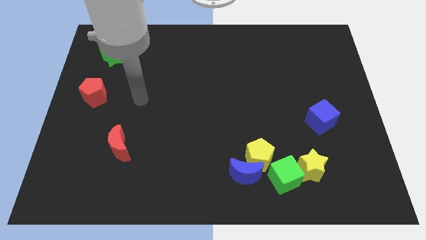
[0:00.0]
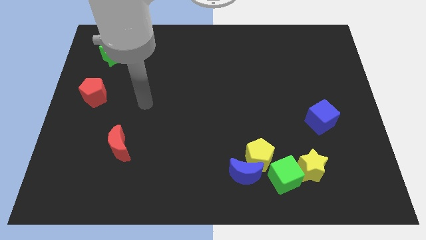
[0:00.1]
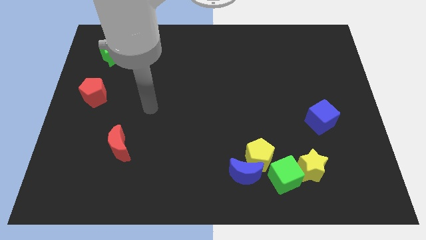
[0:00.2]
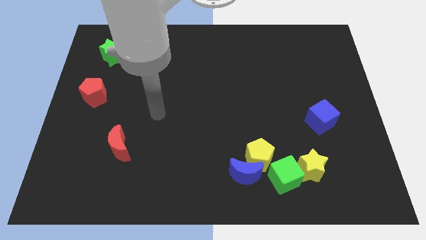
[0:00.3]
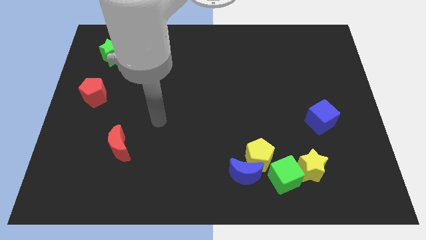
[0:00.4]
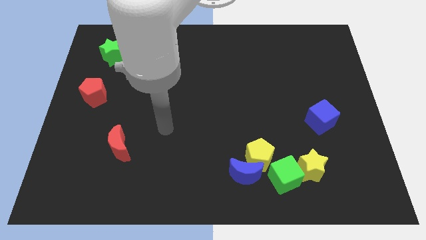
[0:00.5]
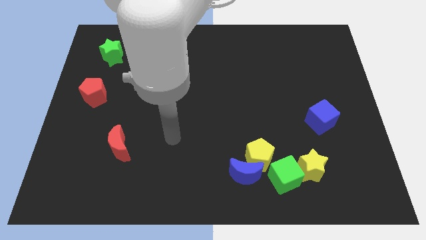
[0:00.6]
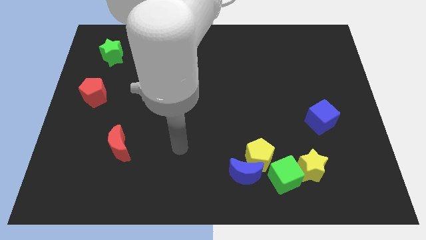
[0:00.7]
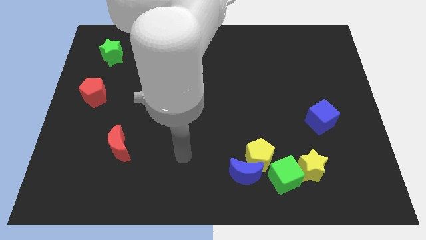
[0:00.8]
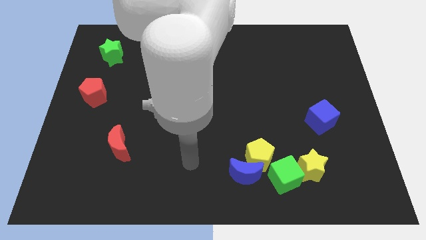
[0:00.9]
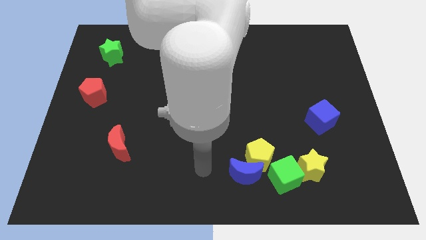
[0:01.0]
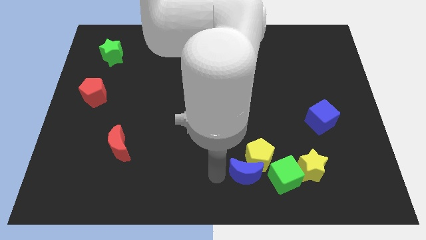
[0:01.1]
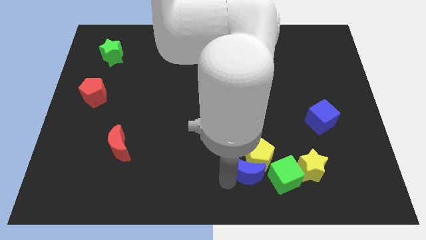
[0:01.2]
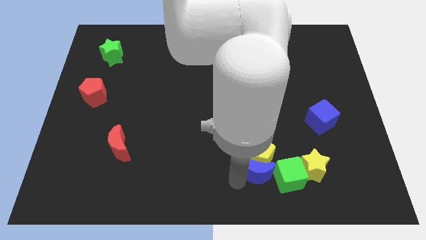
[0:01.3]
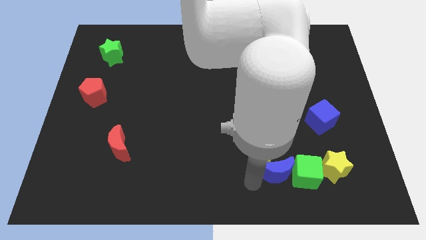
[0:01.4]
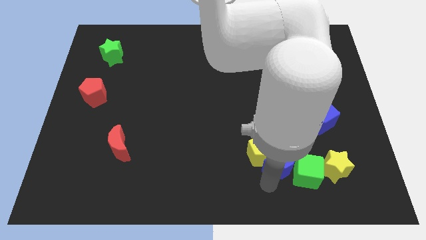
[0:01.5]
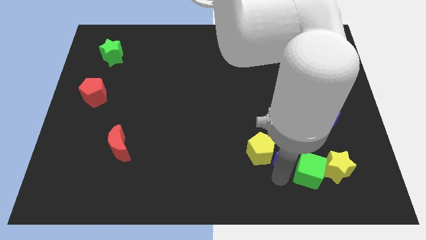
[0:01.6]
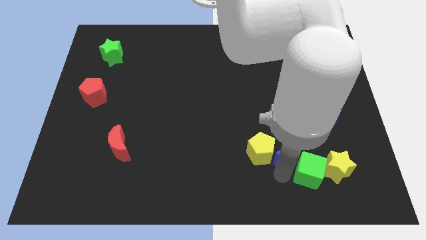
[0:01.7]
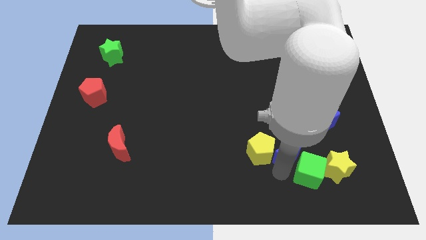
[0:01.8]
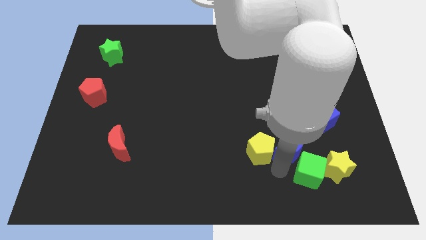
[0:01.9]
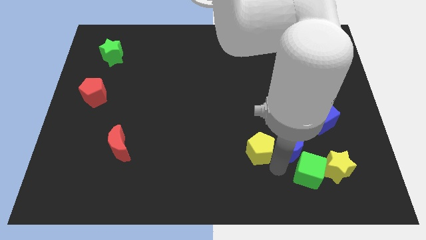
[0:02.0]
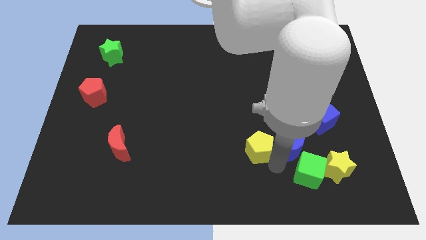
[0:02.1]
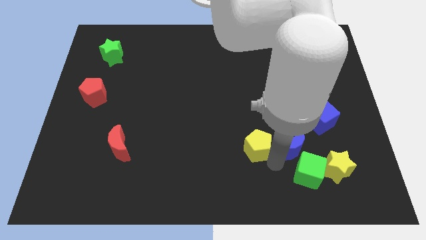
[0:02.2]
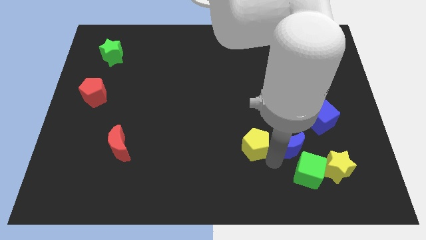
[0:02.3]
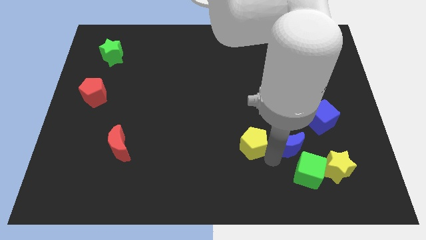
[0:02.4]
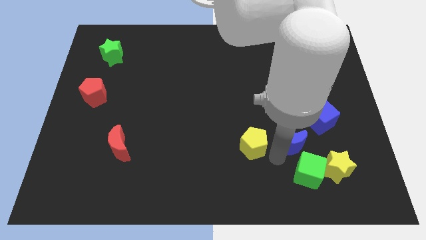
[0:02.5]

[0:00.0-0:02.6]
separate the yellow pentagon from the blue moon and green cube

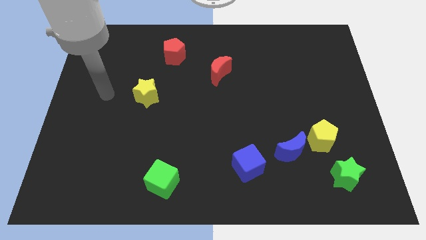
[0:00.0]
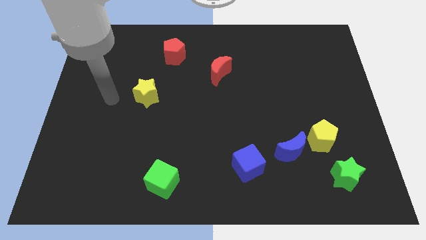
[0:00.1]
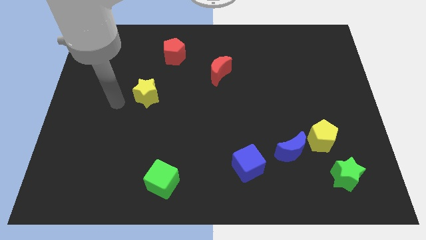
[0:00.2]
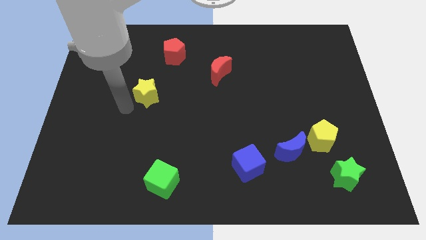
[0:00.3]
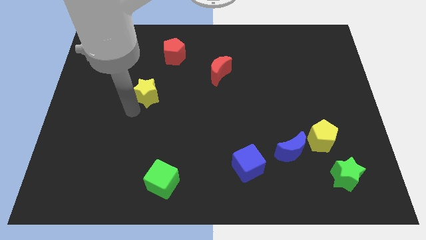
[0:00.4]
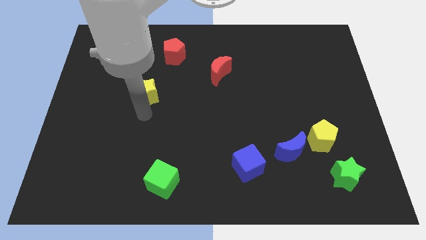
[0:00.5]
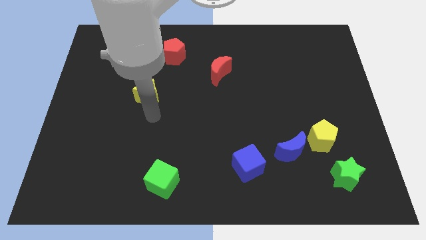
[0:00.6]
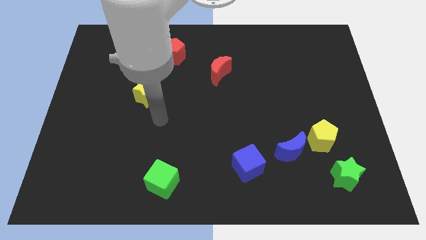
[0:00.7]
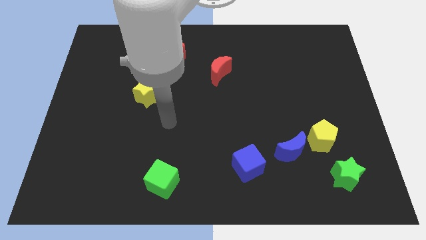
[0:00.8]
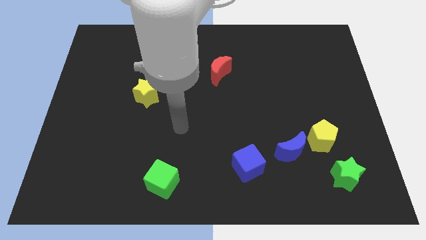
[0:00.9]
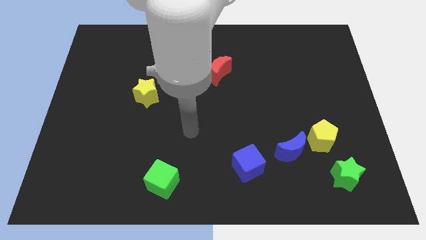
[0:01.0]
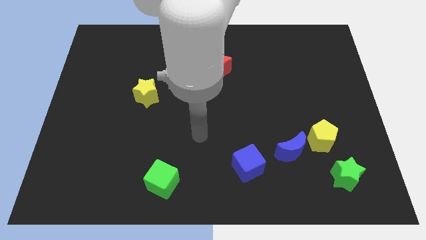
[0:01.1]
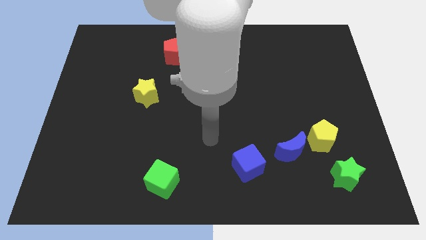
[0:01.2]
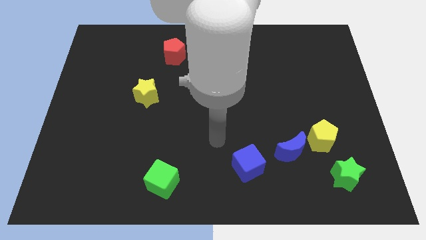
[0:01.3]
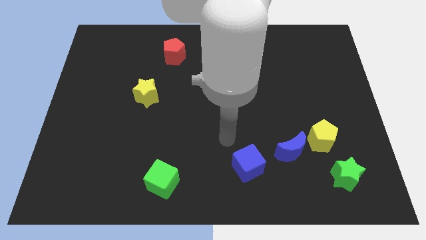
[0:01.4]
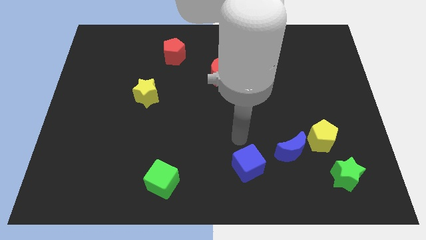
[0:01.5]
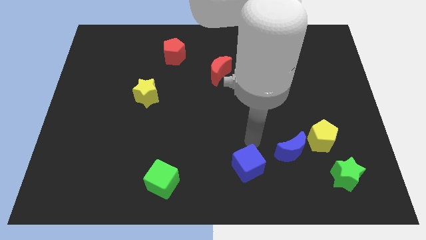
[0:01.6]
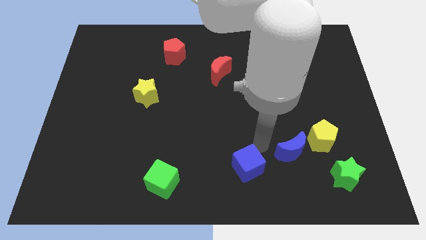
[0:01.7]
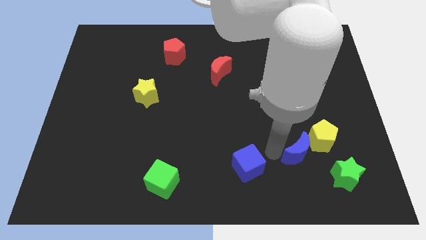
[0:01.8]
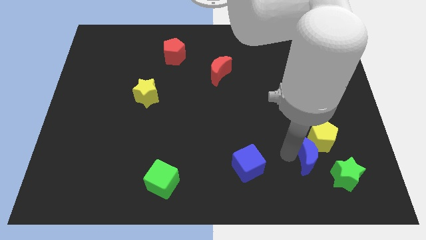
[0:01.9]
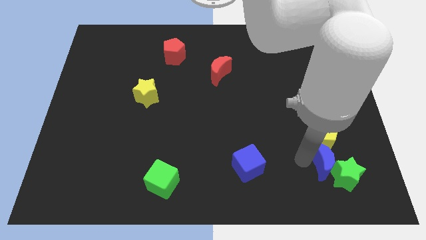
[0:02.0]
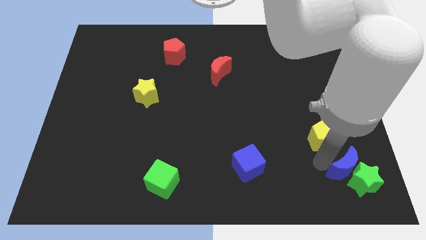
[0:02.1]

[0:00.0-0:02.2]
pull the yellow pentagon apart from the blue moon and green star

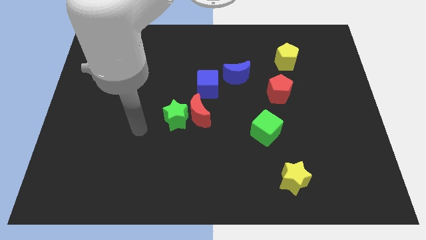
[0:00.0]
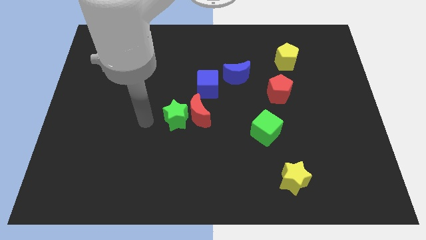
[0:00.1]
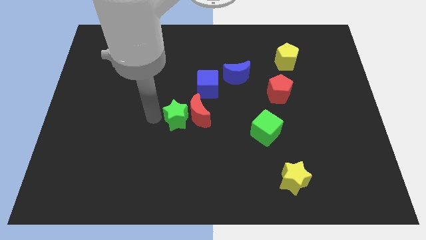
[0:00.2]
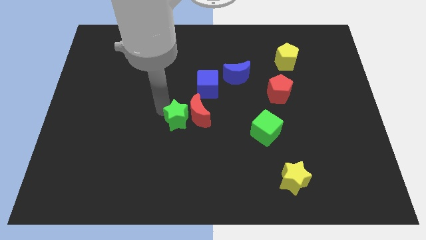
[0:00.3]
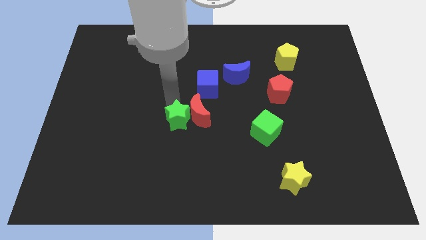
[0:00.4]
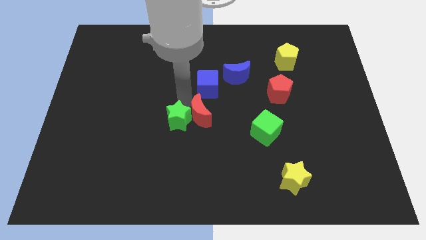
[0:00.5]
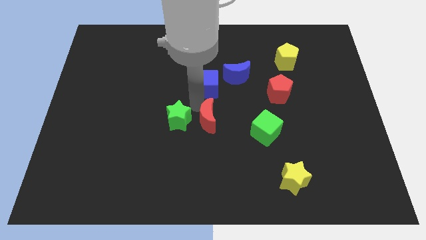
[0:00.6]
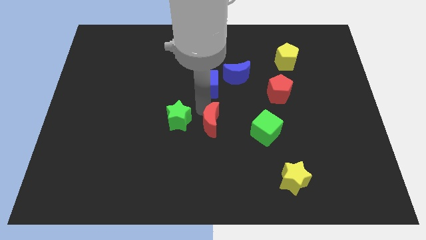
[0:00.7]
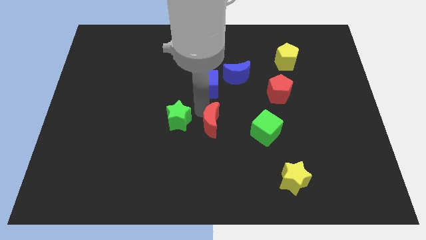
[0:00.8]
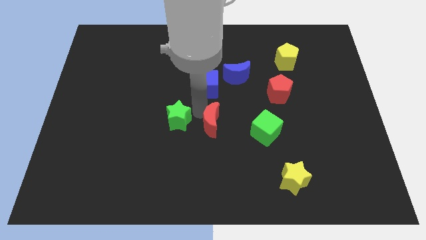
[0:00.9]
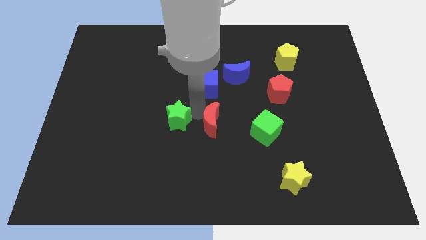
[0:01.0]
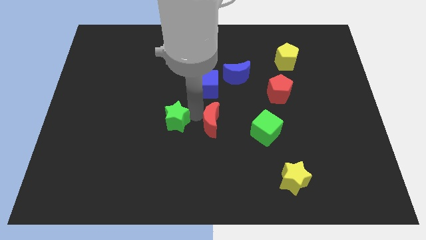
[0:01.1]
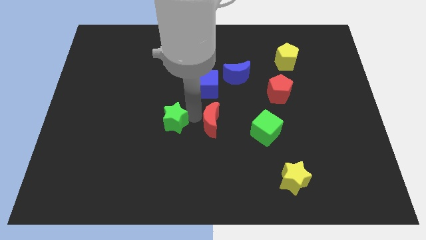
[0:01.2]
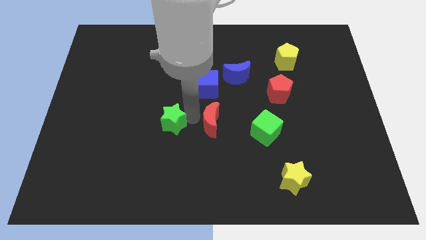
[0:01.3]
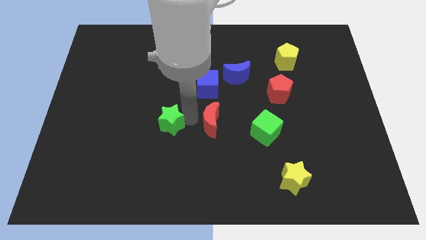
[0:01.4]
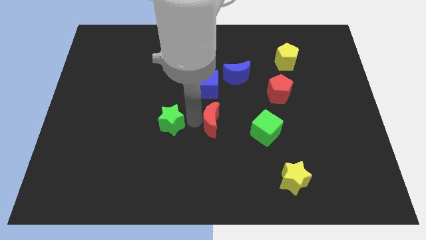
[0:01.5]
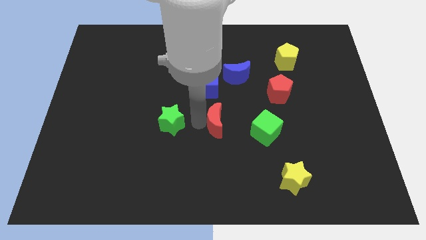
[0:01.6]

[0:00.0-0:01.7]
move the green star away from the red moon

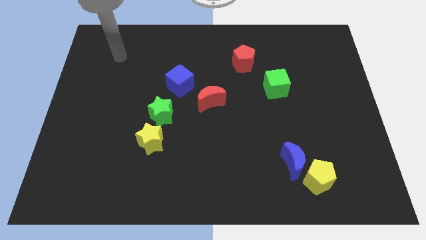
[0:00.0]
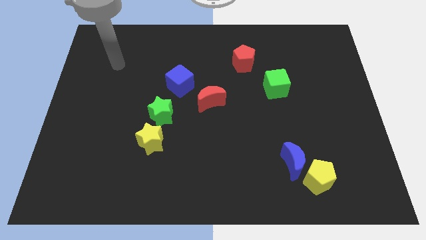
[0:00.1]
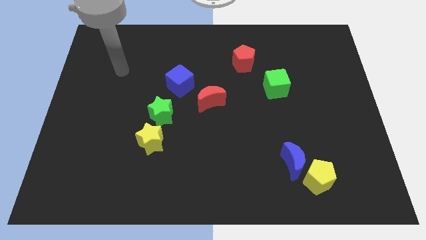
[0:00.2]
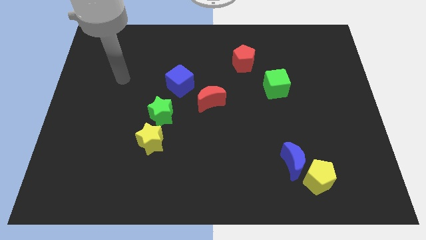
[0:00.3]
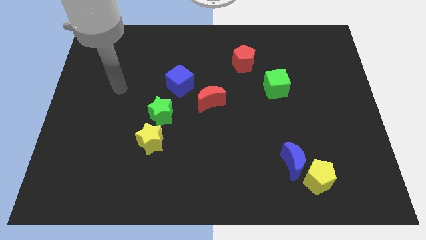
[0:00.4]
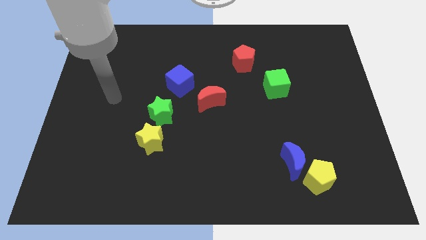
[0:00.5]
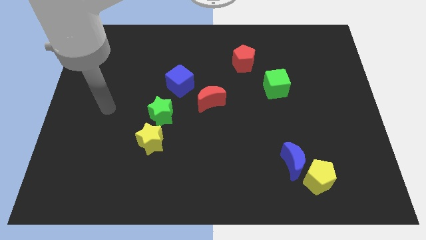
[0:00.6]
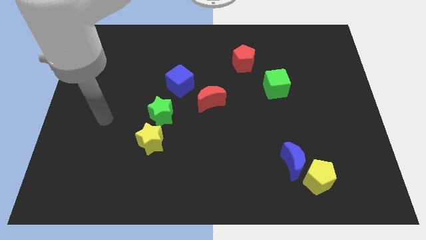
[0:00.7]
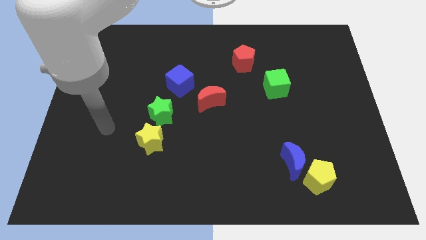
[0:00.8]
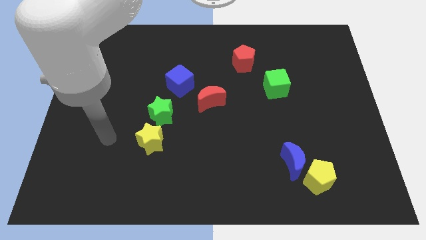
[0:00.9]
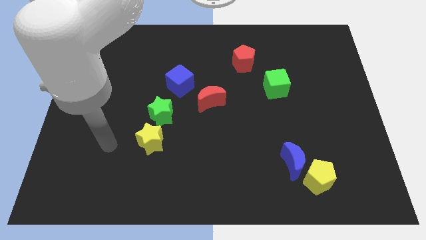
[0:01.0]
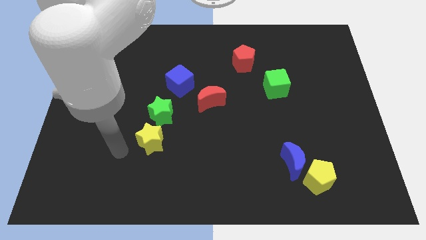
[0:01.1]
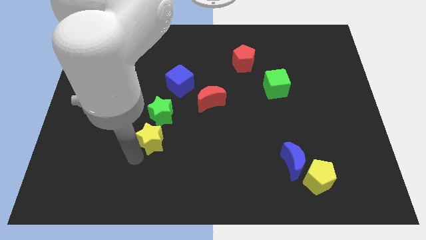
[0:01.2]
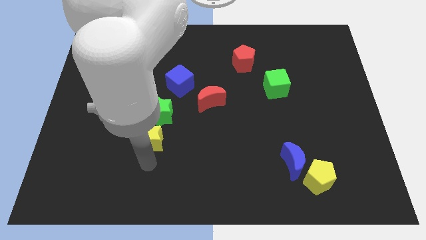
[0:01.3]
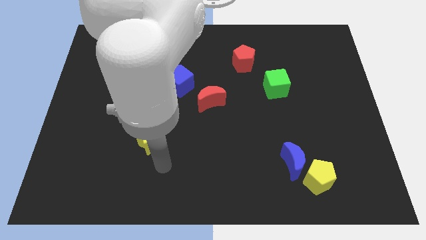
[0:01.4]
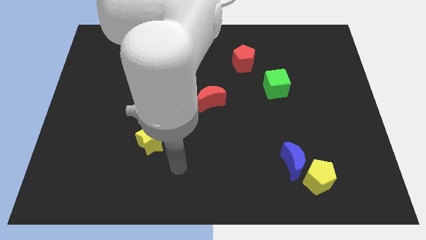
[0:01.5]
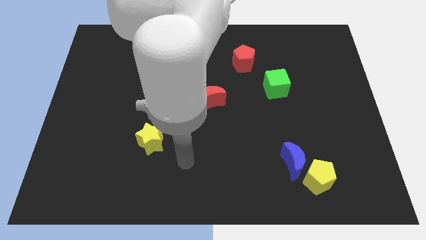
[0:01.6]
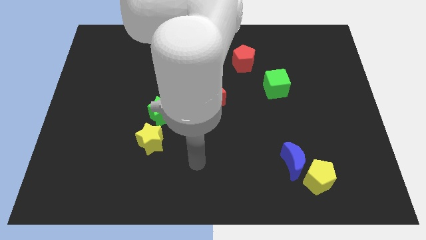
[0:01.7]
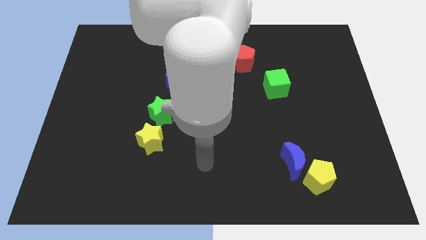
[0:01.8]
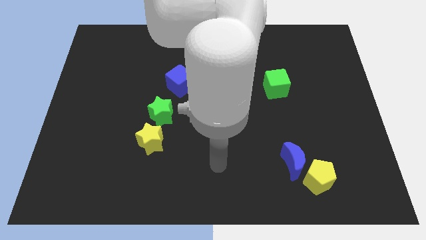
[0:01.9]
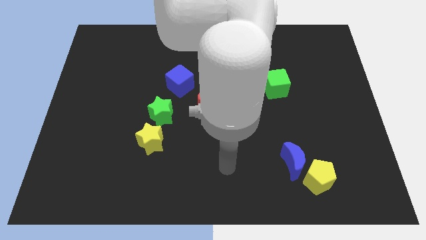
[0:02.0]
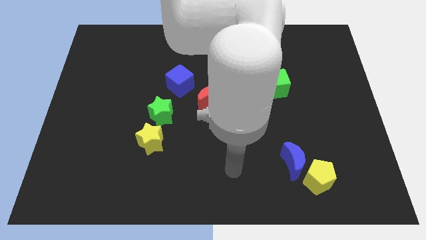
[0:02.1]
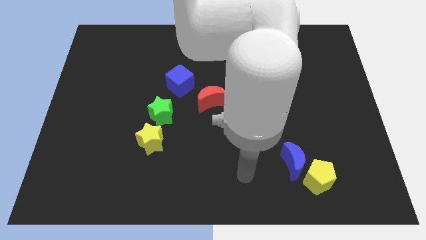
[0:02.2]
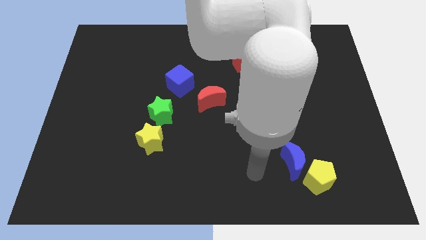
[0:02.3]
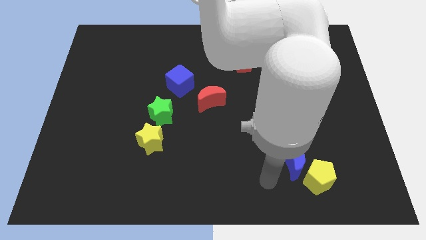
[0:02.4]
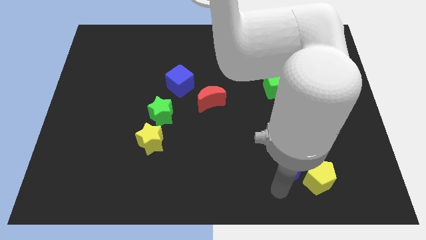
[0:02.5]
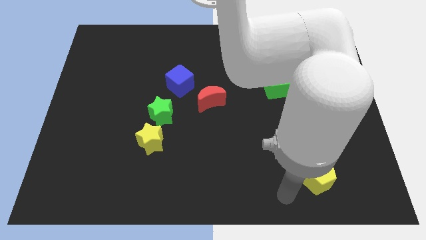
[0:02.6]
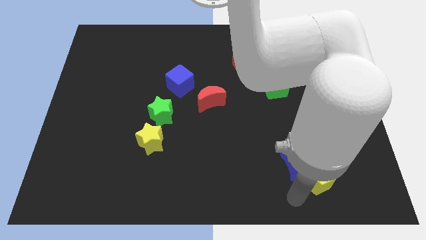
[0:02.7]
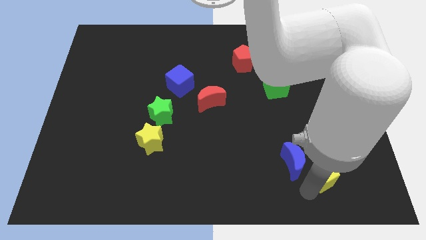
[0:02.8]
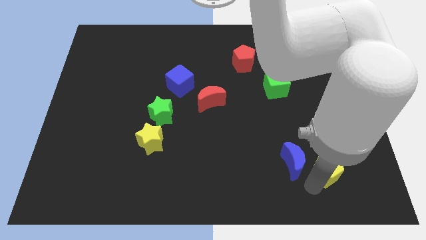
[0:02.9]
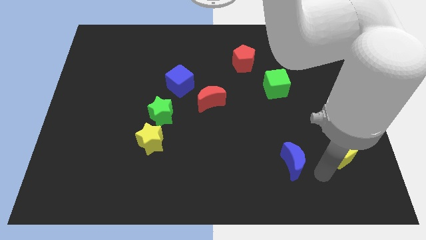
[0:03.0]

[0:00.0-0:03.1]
pull the blue moon apart from the yellow pentagon
